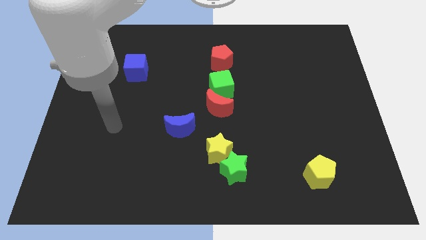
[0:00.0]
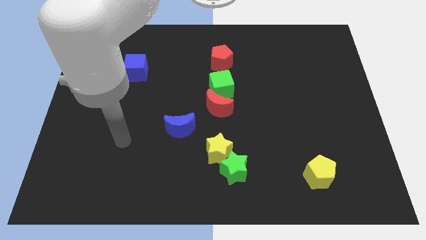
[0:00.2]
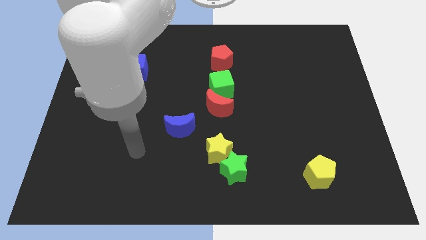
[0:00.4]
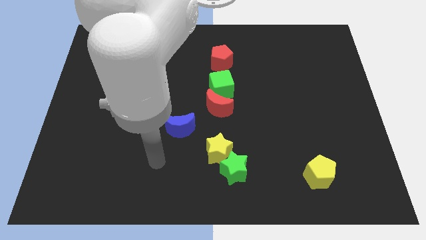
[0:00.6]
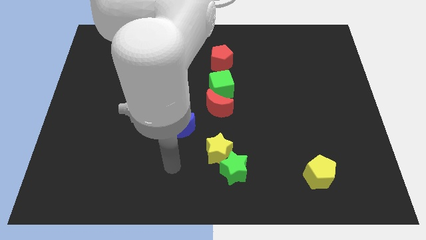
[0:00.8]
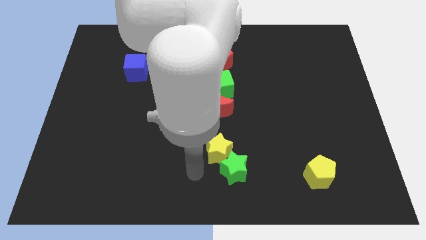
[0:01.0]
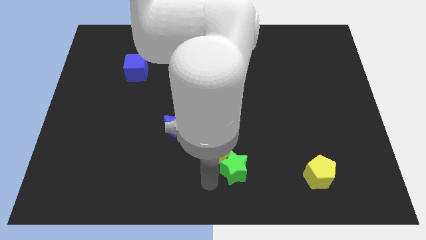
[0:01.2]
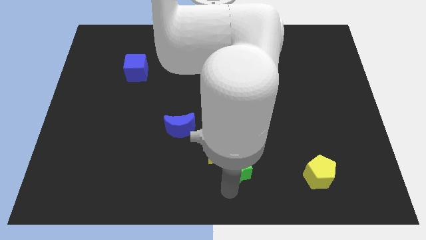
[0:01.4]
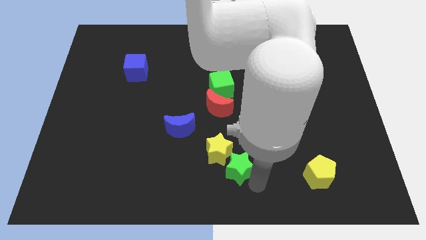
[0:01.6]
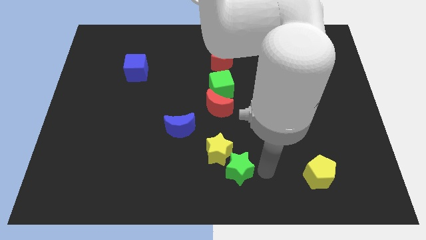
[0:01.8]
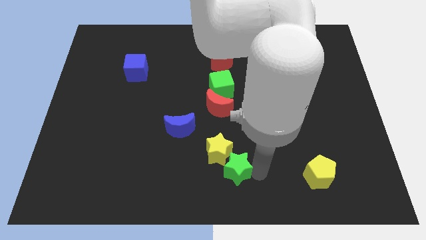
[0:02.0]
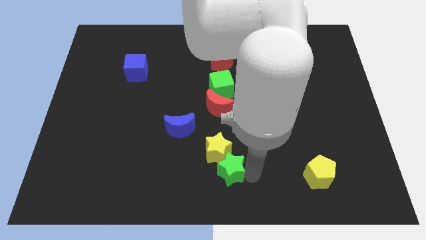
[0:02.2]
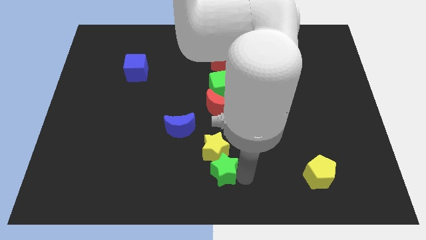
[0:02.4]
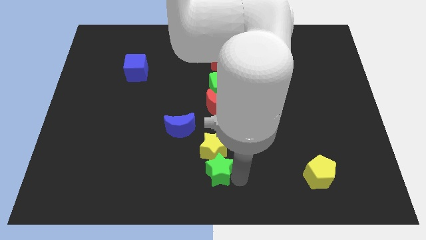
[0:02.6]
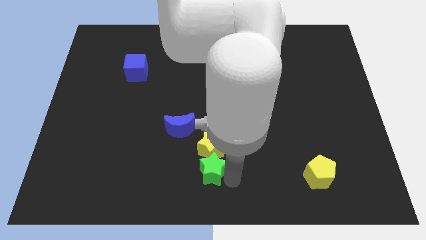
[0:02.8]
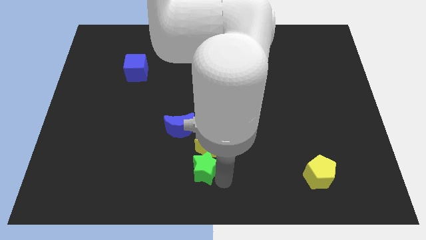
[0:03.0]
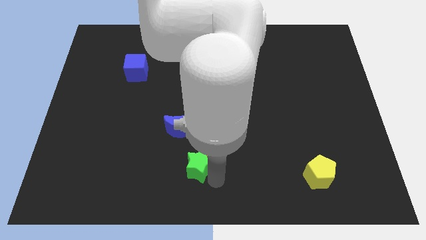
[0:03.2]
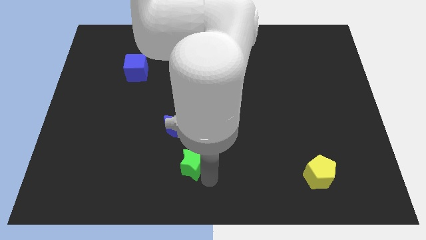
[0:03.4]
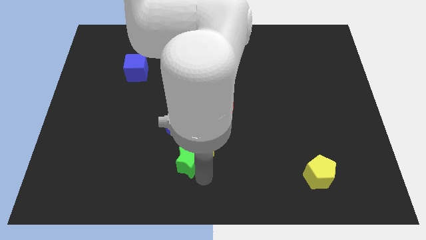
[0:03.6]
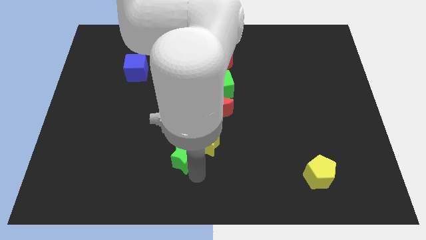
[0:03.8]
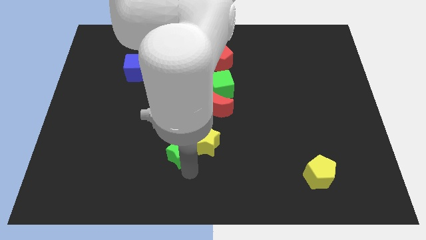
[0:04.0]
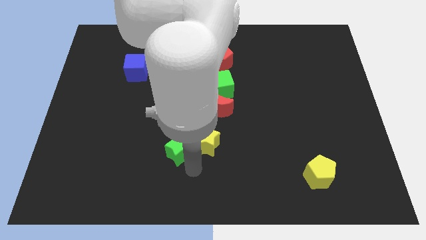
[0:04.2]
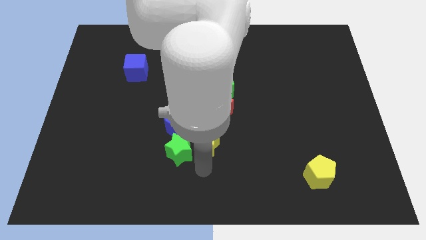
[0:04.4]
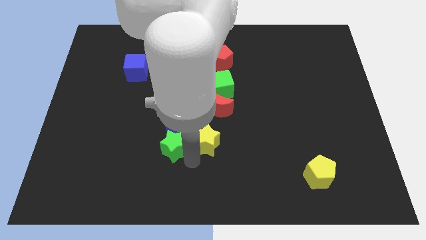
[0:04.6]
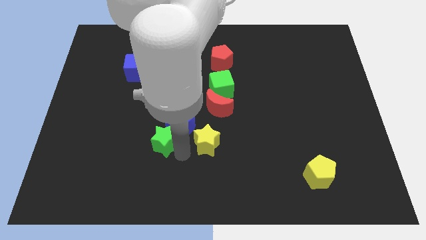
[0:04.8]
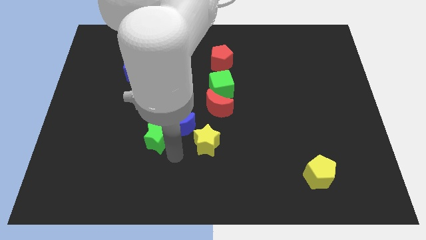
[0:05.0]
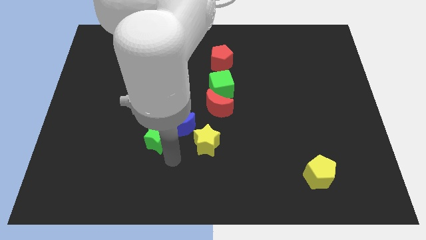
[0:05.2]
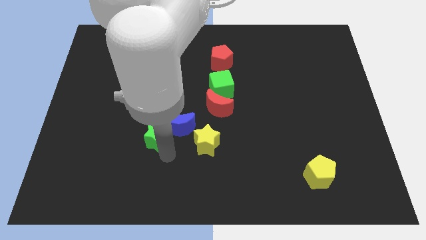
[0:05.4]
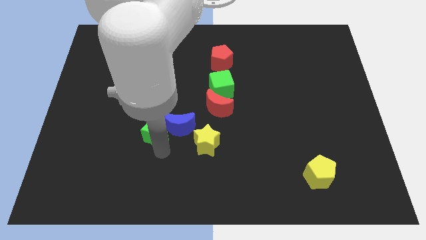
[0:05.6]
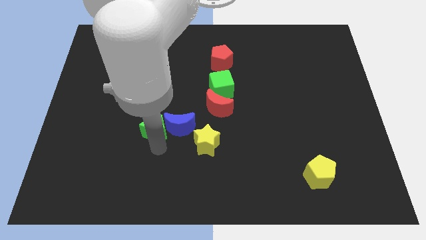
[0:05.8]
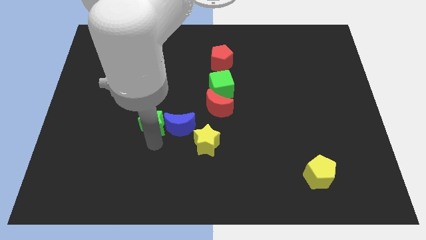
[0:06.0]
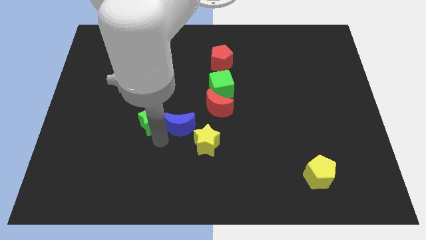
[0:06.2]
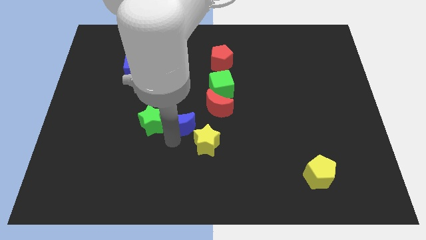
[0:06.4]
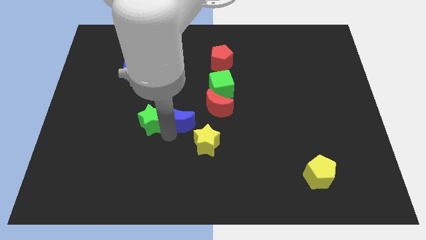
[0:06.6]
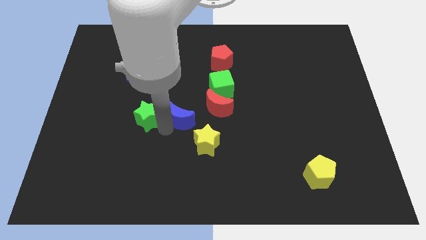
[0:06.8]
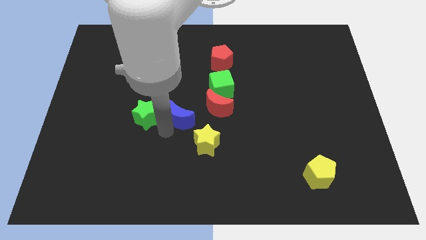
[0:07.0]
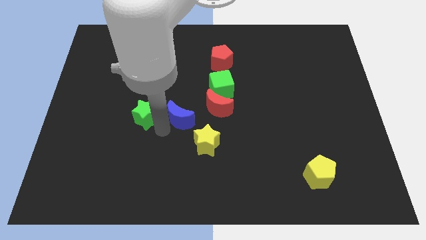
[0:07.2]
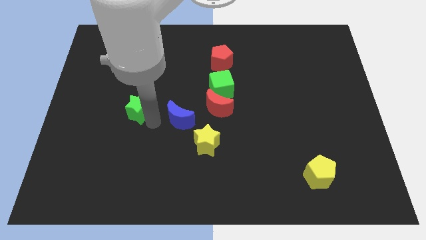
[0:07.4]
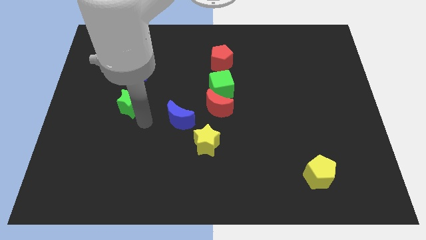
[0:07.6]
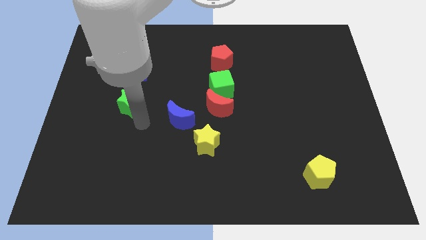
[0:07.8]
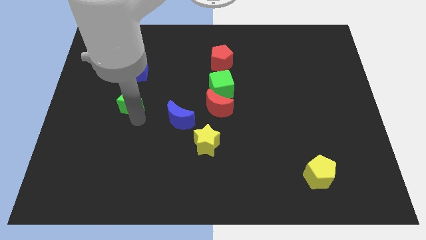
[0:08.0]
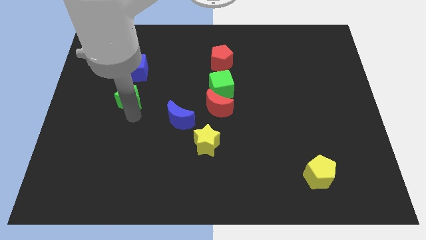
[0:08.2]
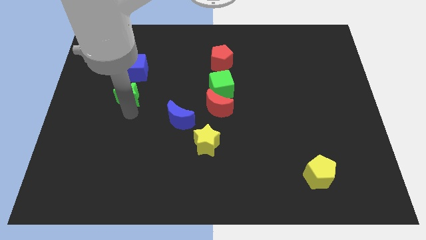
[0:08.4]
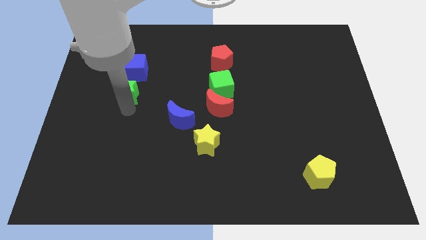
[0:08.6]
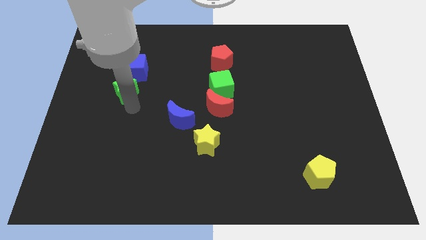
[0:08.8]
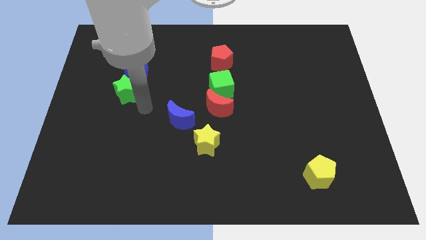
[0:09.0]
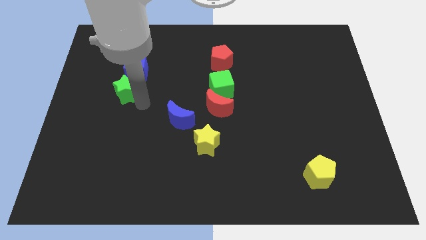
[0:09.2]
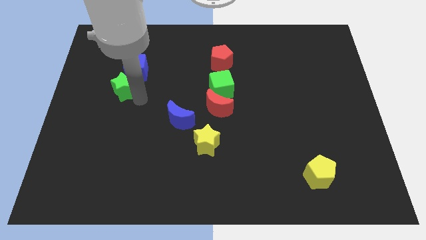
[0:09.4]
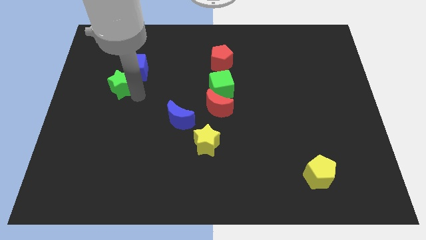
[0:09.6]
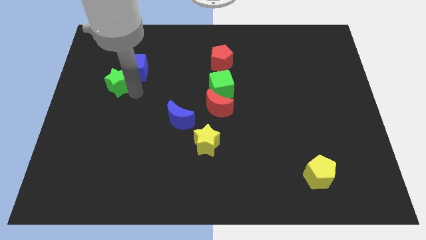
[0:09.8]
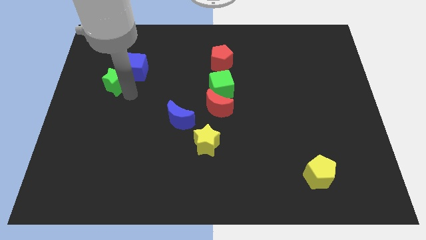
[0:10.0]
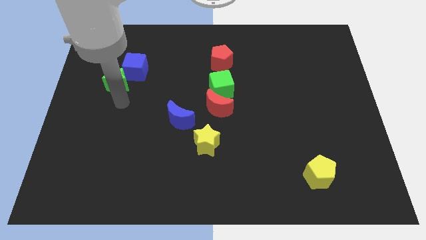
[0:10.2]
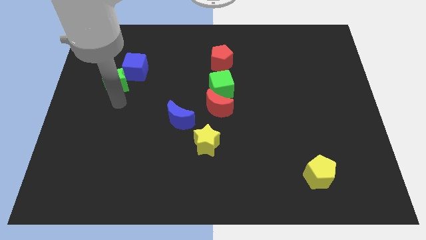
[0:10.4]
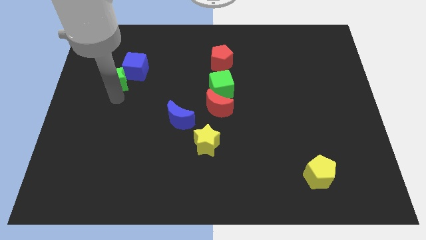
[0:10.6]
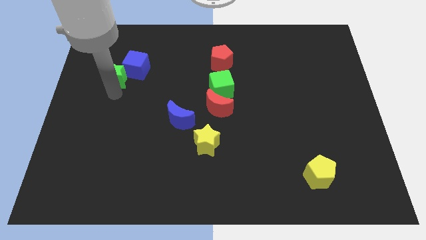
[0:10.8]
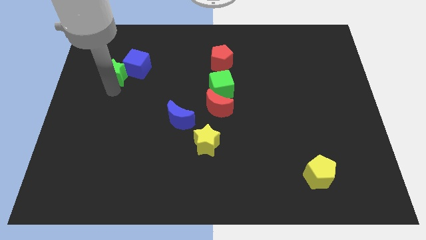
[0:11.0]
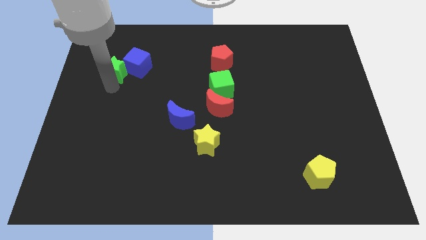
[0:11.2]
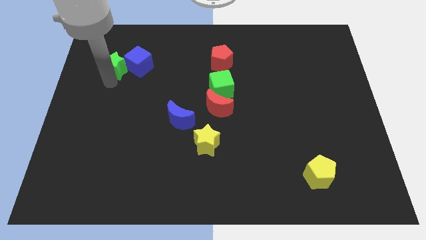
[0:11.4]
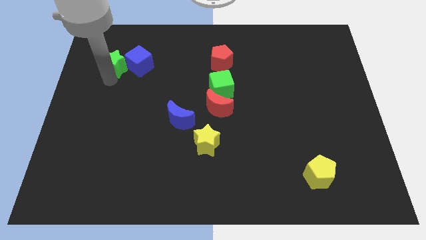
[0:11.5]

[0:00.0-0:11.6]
put the green star diagonally up and to the left of the blue cube

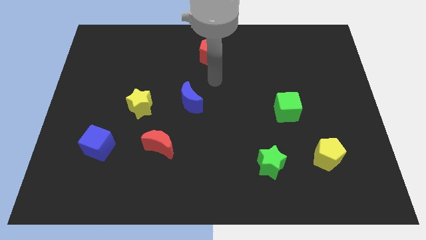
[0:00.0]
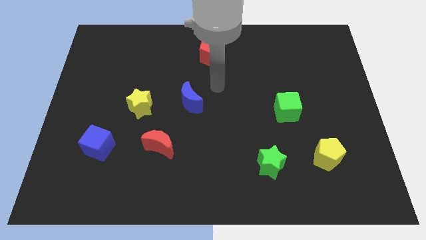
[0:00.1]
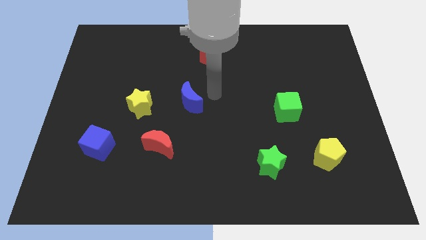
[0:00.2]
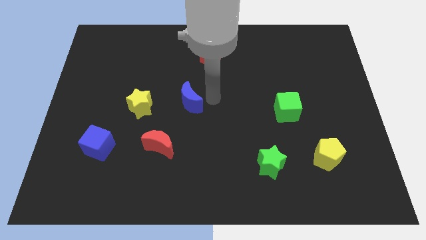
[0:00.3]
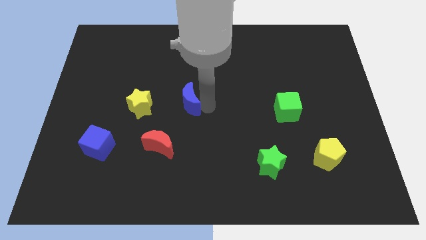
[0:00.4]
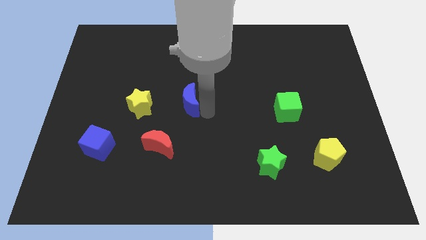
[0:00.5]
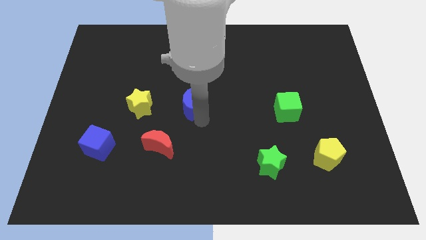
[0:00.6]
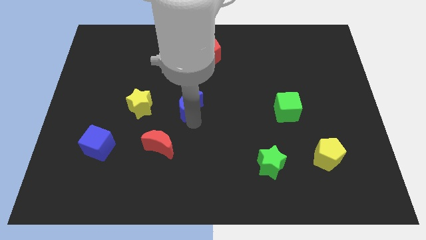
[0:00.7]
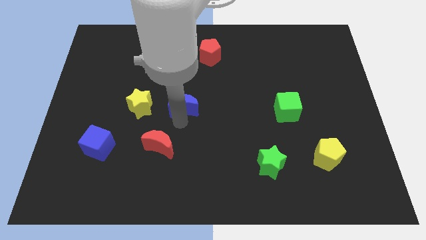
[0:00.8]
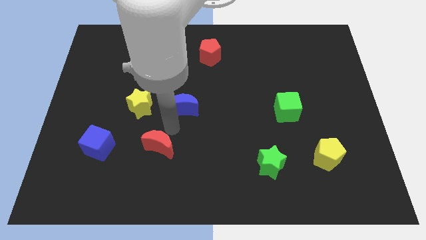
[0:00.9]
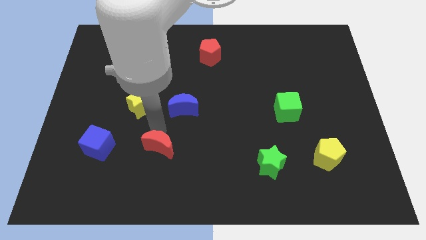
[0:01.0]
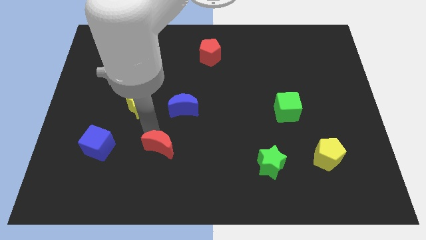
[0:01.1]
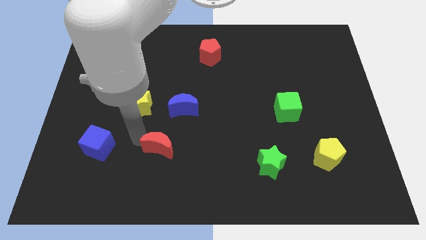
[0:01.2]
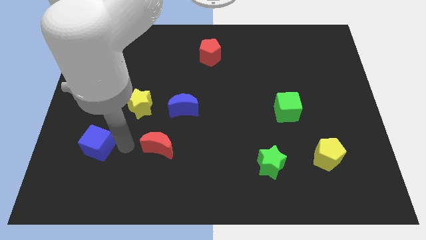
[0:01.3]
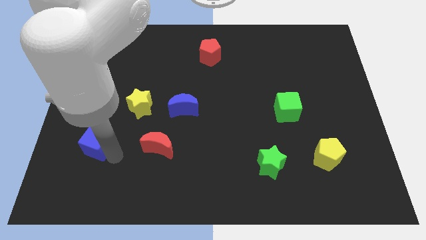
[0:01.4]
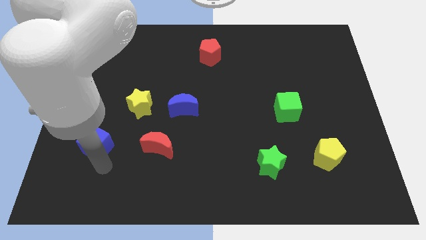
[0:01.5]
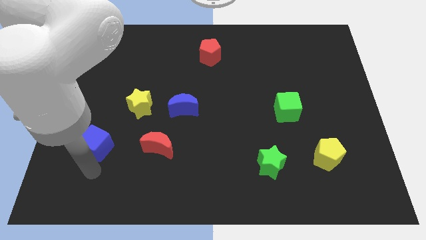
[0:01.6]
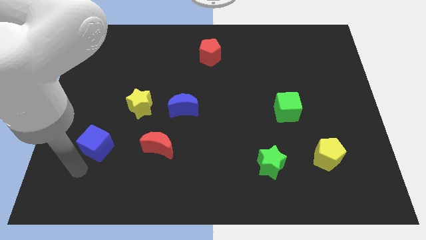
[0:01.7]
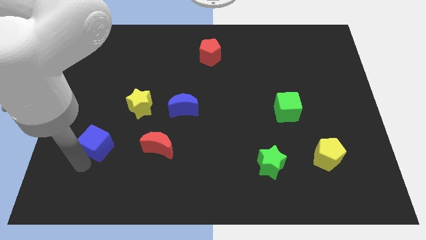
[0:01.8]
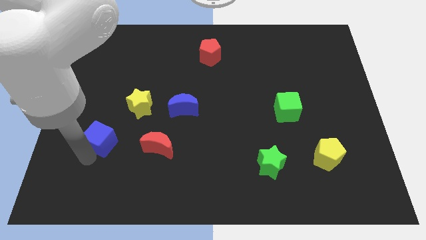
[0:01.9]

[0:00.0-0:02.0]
move the blue cube diagonally down and to the left of the yellow star
